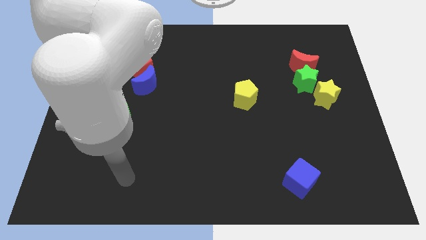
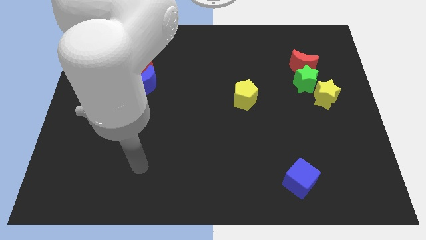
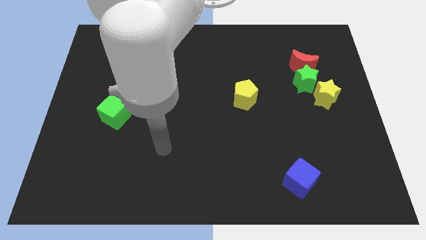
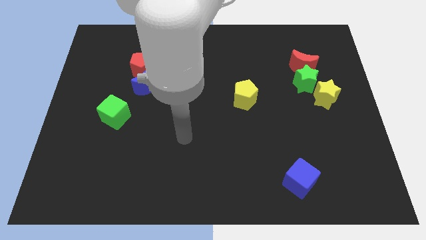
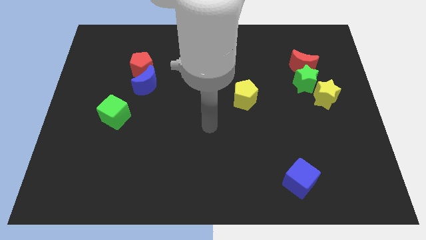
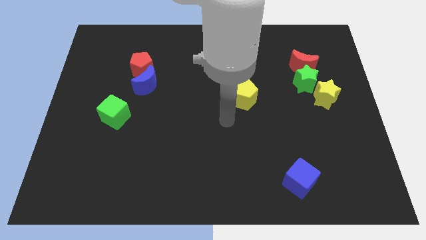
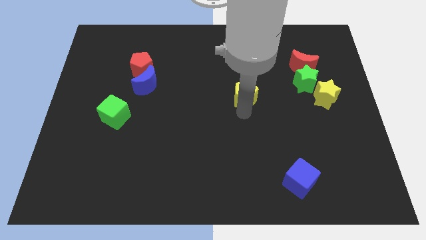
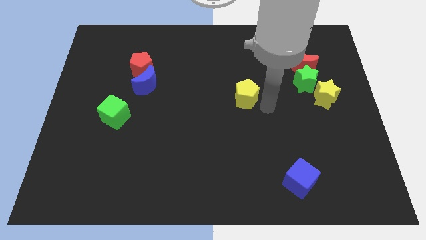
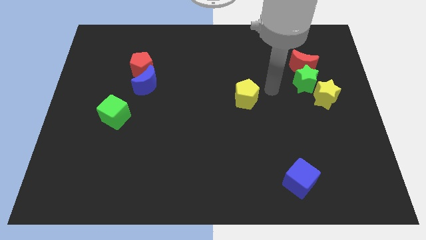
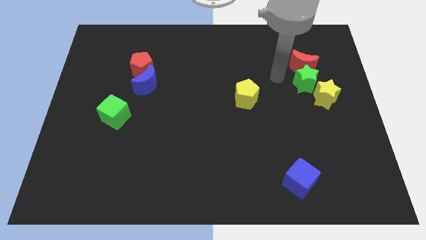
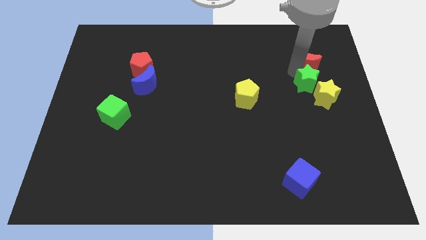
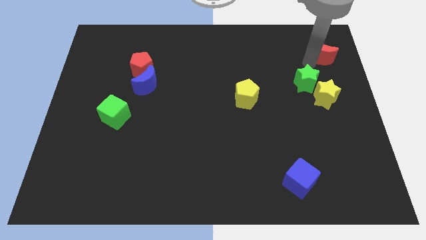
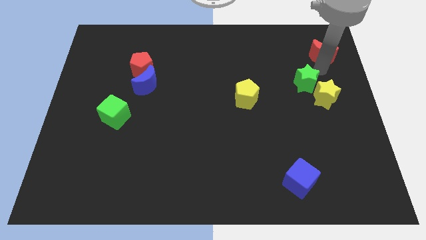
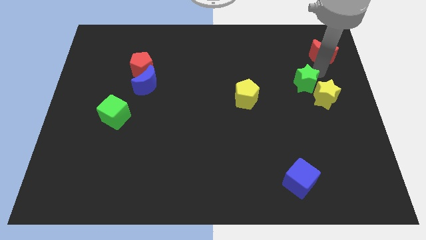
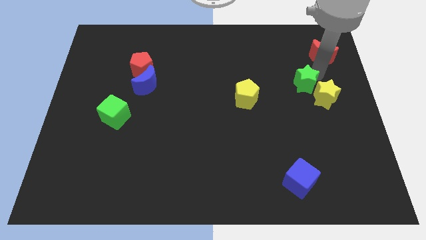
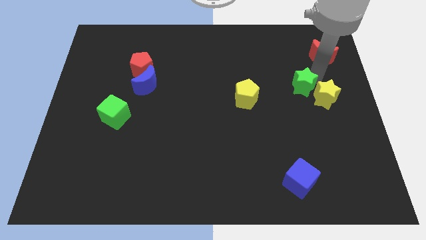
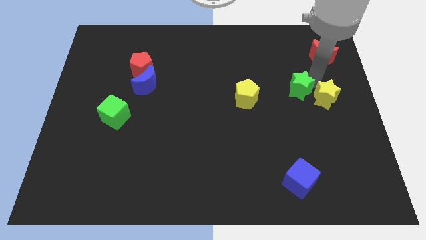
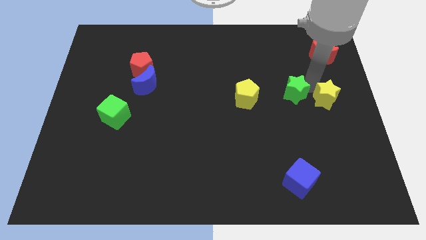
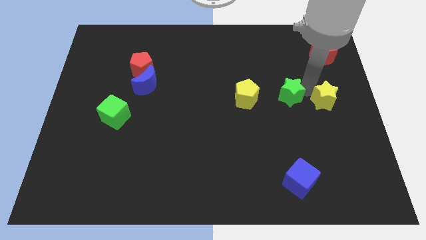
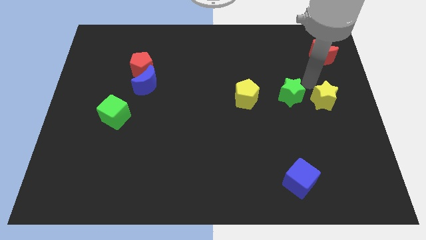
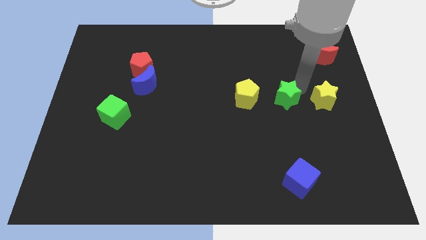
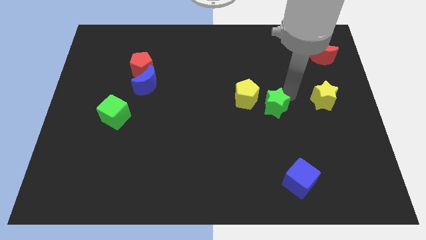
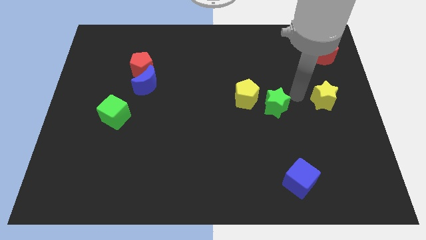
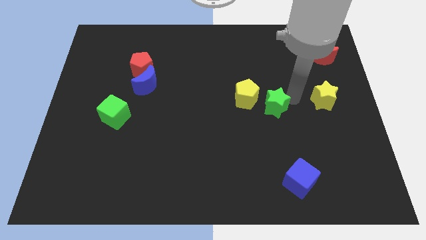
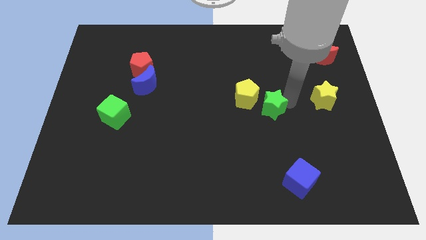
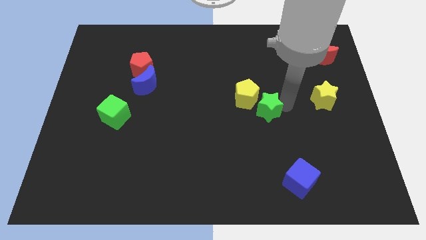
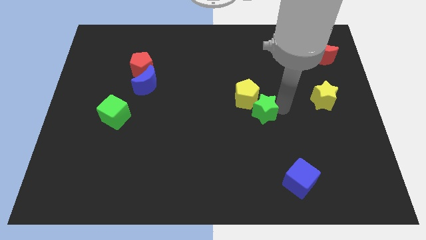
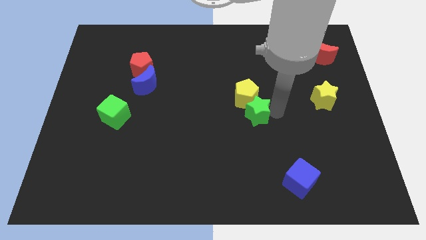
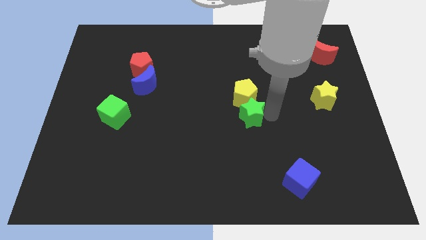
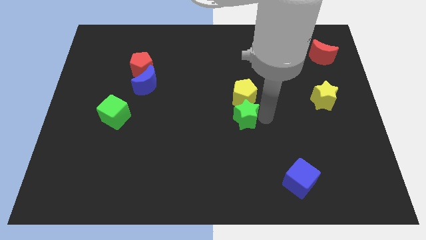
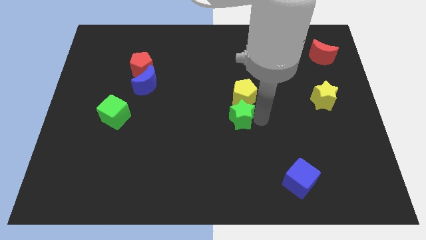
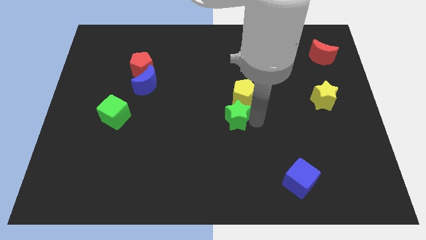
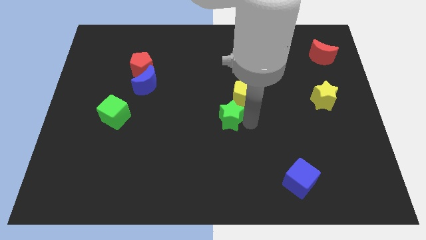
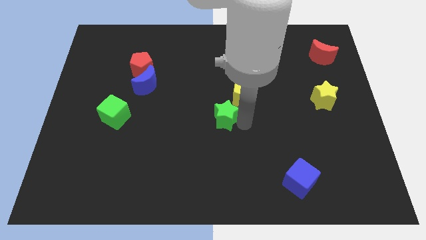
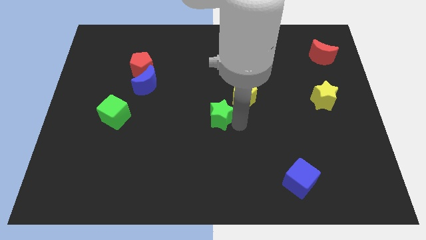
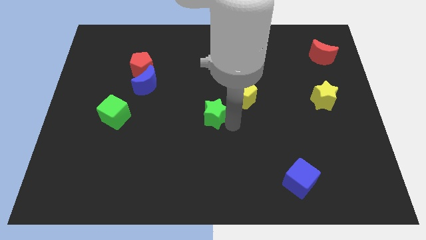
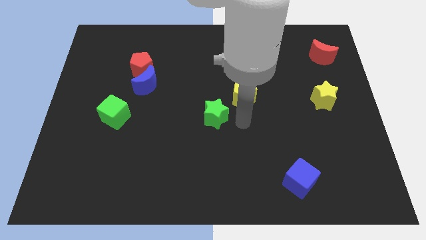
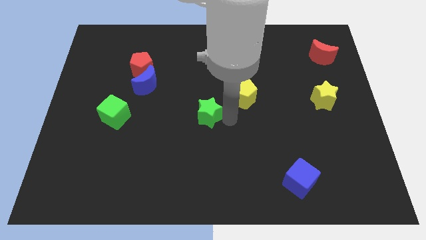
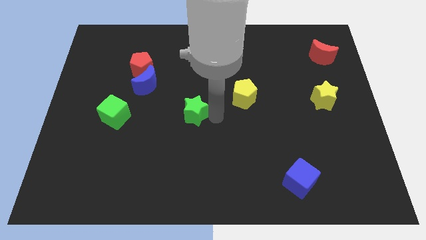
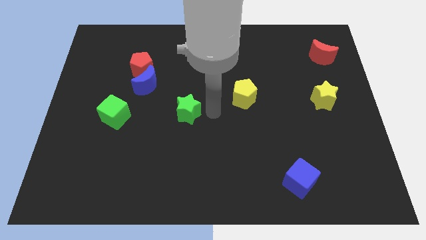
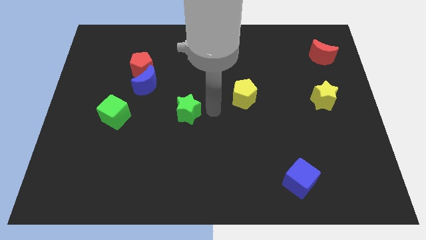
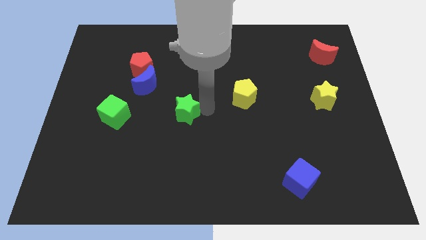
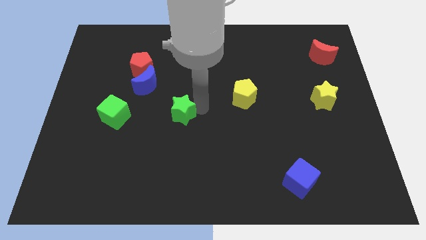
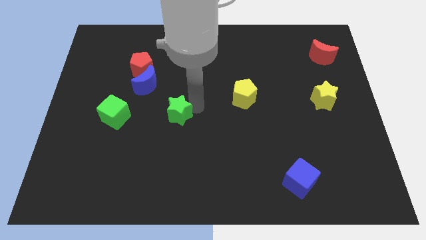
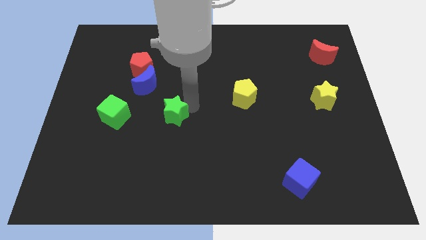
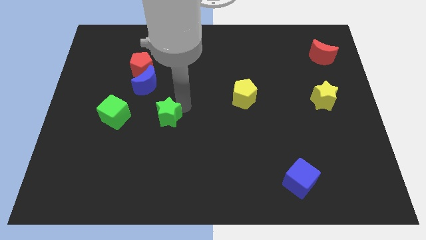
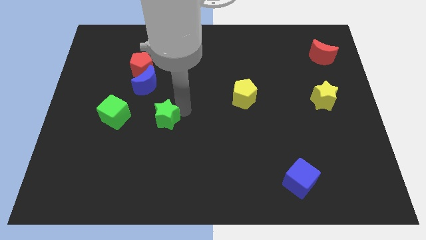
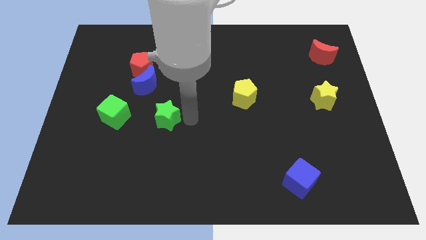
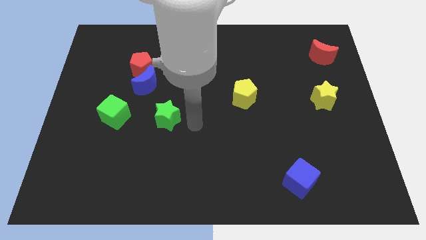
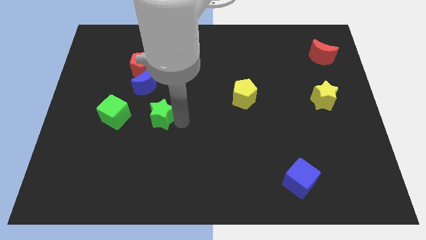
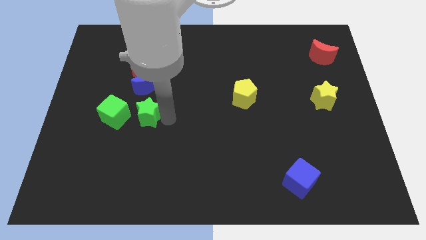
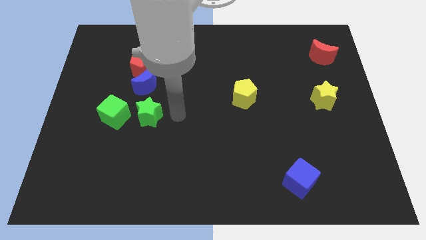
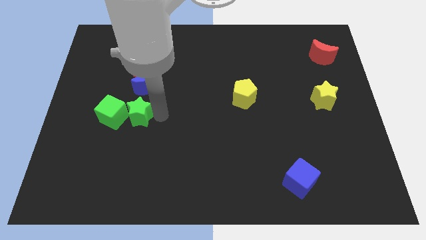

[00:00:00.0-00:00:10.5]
move the green star towards the green cube

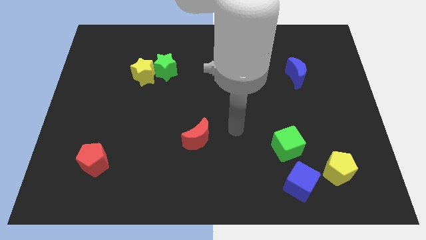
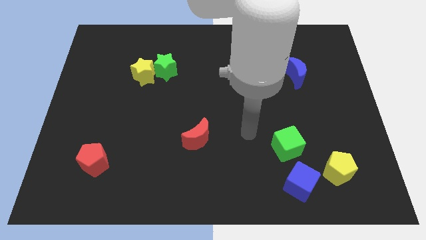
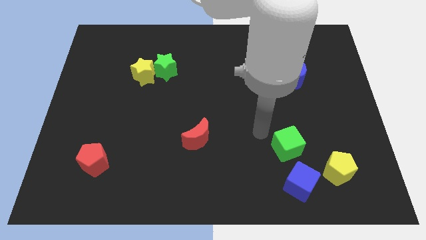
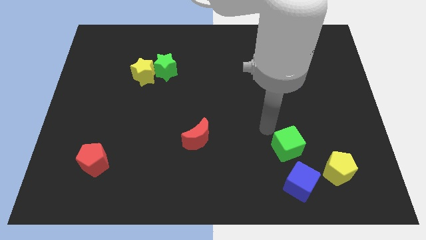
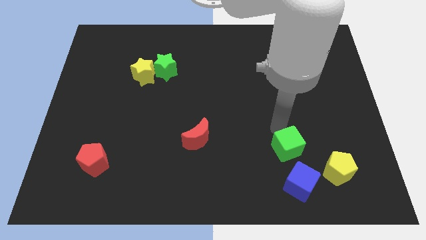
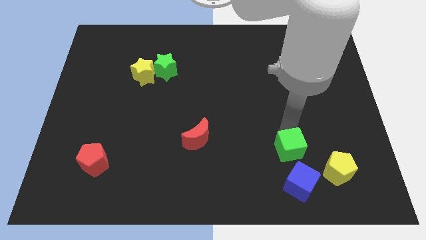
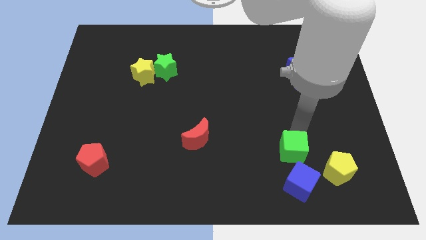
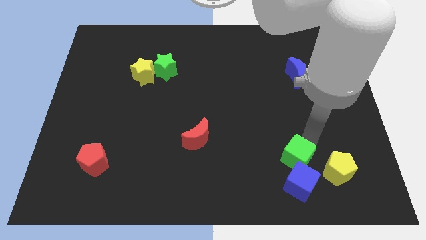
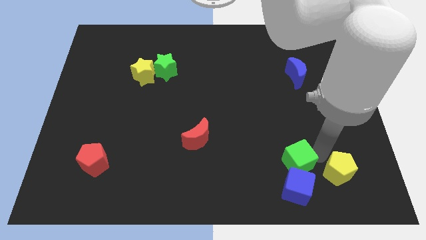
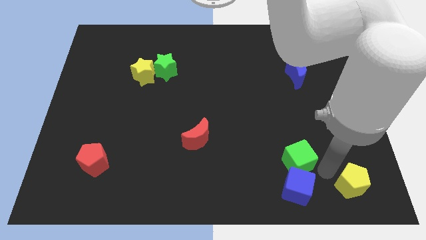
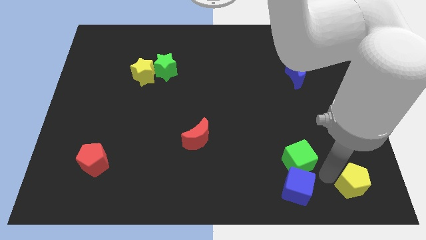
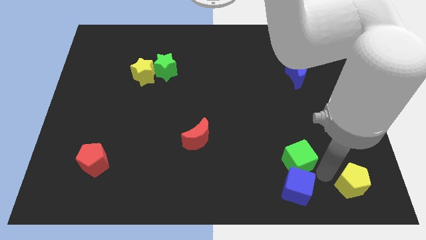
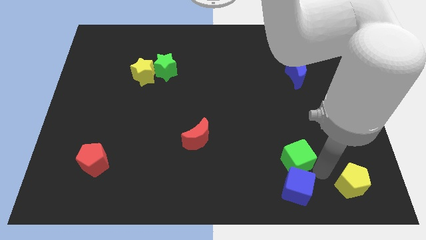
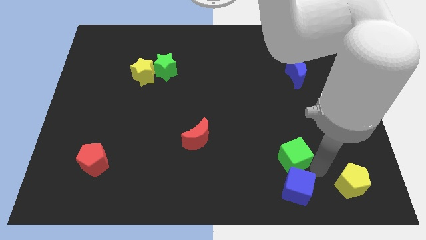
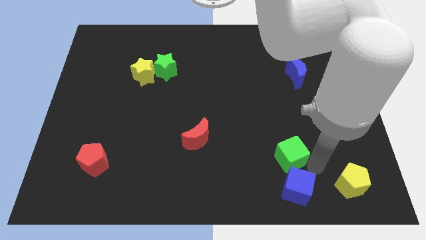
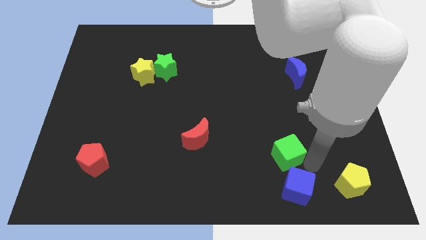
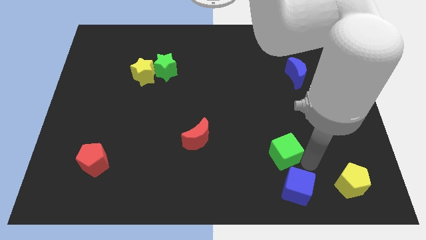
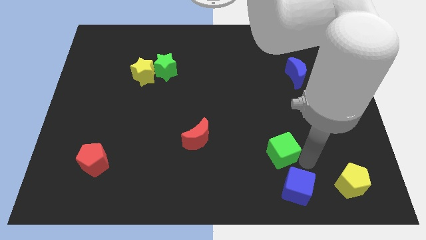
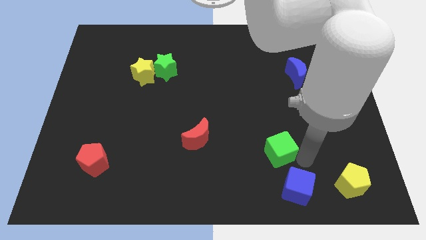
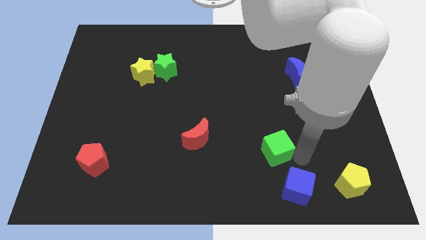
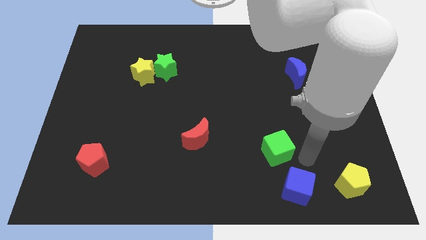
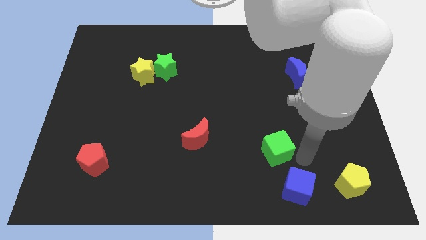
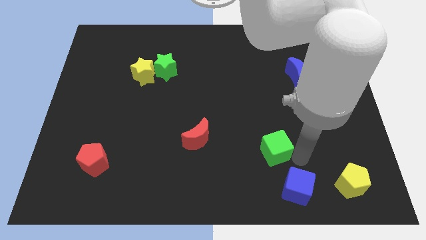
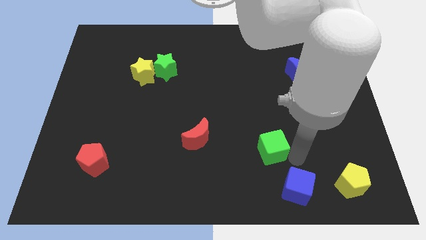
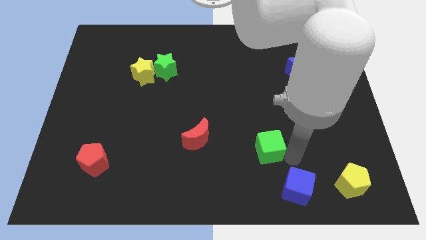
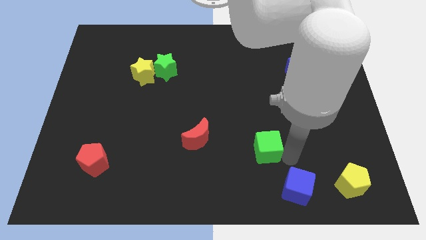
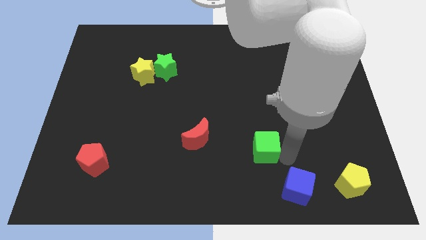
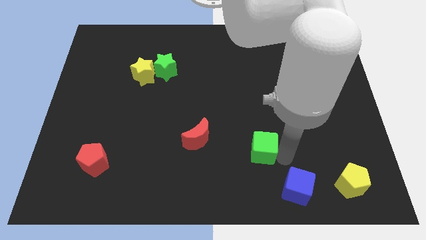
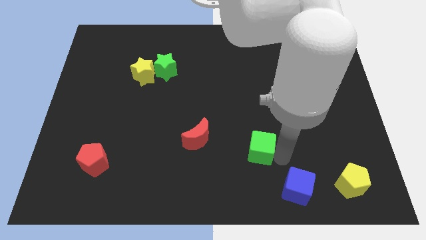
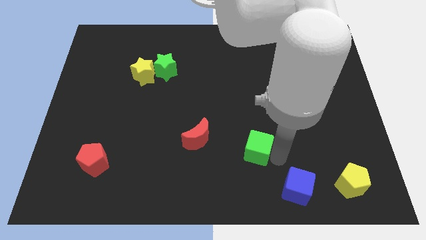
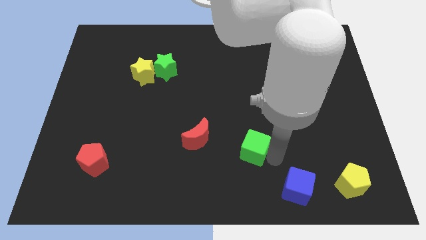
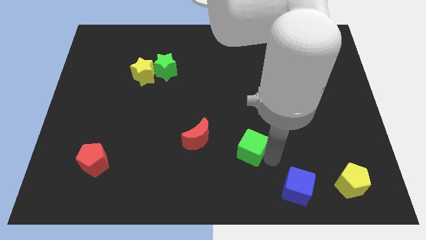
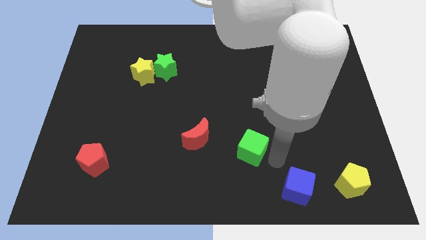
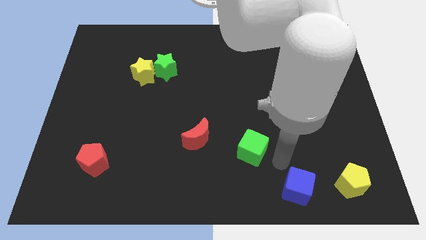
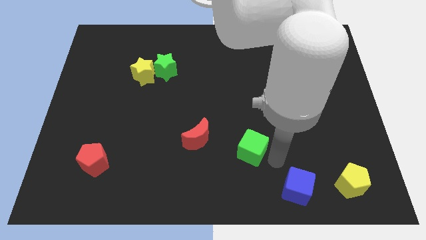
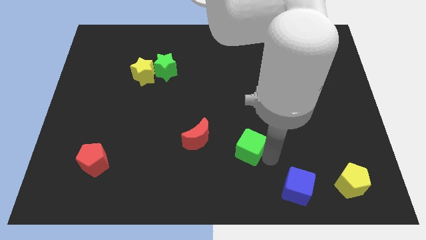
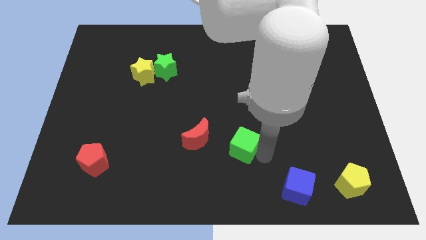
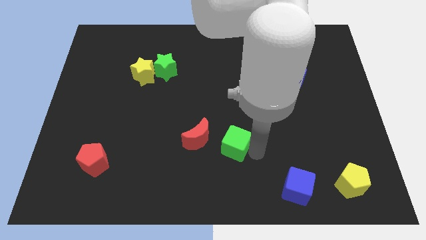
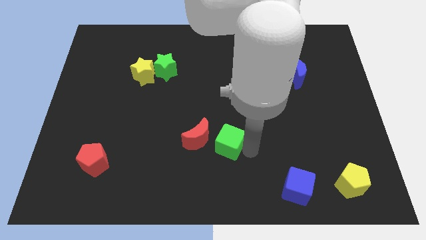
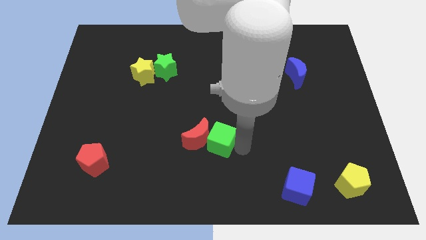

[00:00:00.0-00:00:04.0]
move the green cube next to the red moon
